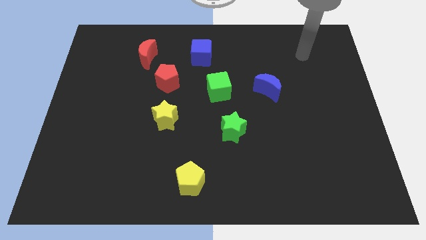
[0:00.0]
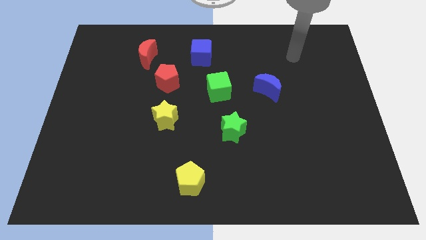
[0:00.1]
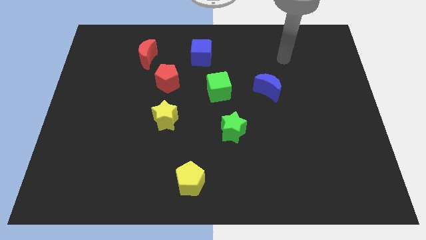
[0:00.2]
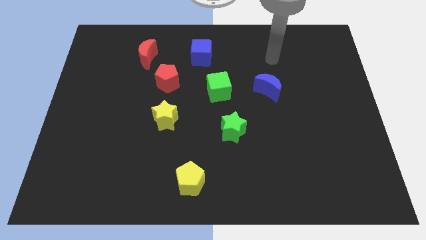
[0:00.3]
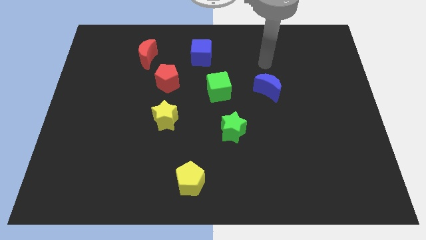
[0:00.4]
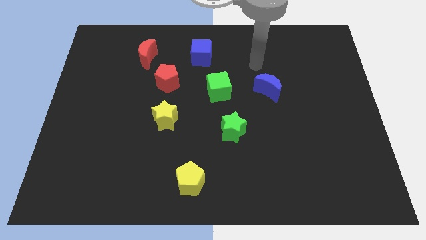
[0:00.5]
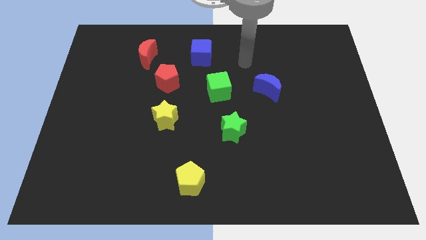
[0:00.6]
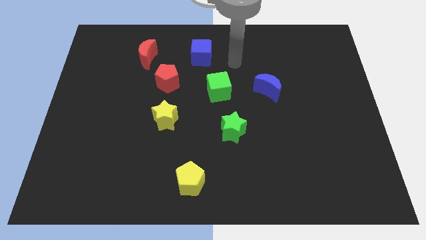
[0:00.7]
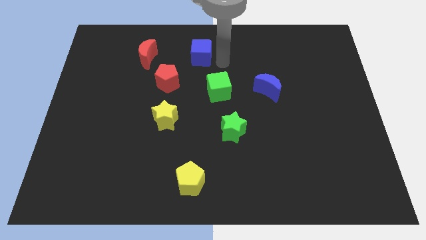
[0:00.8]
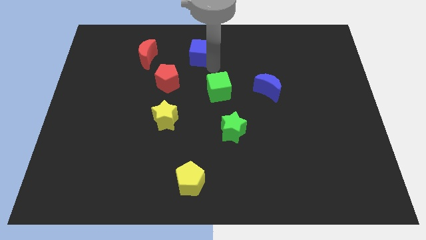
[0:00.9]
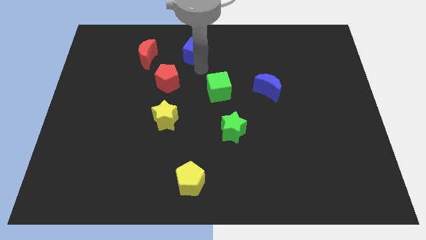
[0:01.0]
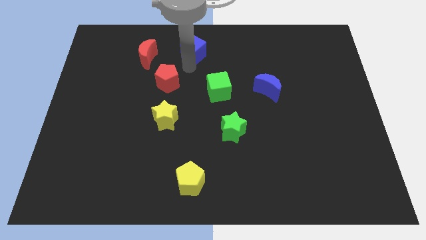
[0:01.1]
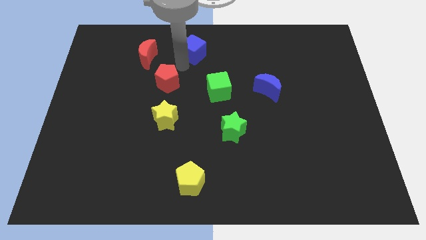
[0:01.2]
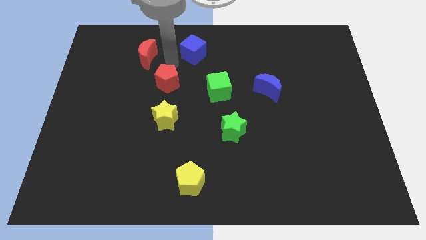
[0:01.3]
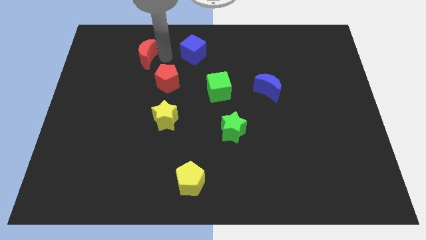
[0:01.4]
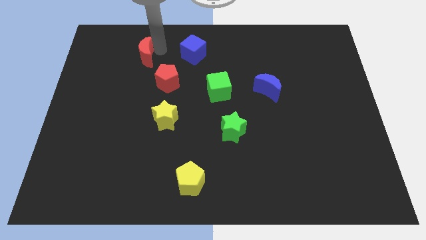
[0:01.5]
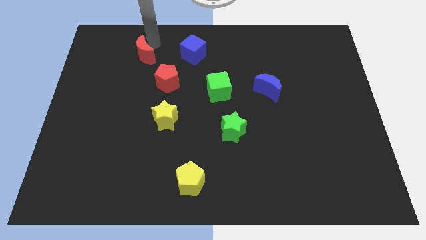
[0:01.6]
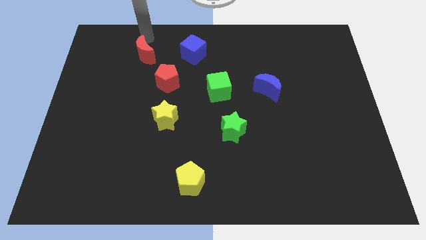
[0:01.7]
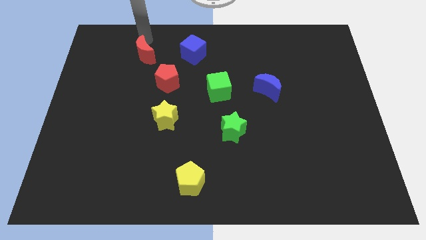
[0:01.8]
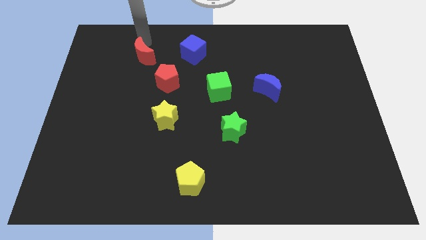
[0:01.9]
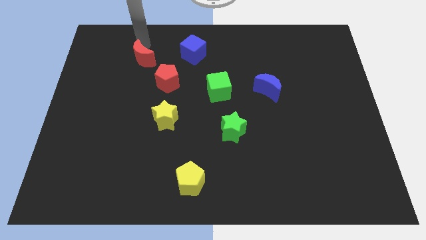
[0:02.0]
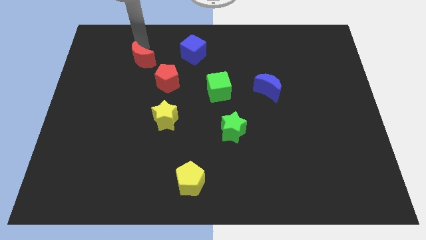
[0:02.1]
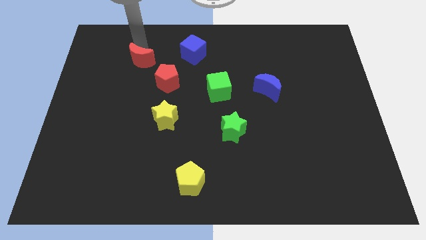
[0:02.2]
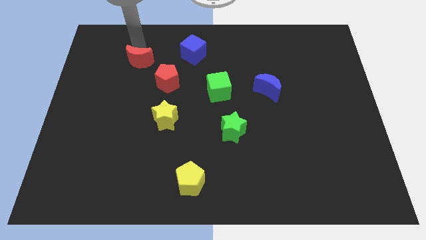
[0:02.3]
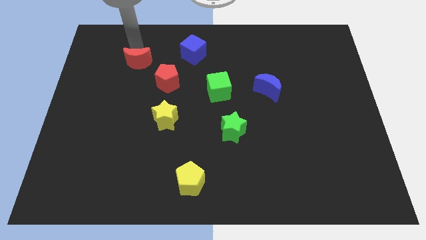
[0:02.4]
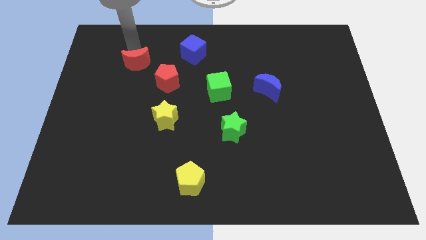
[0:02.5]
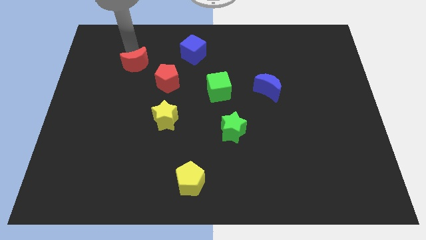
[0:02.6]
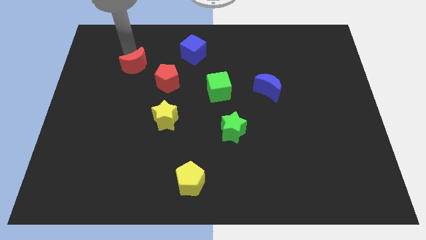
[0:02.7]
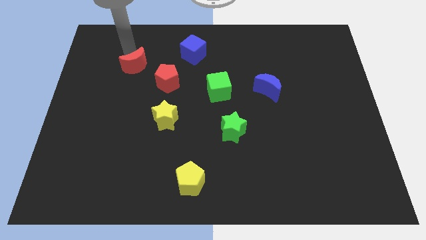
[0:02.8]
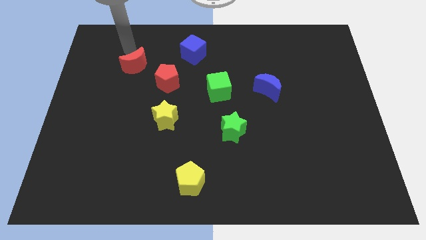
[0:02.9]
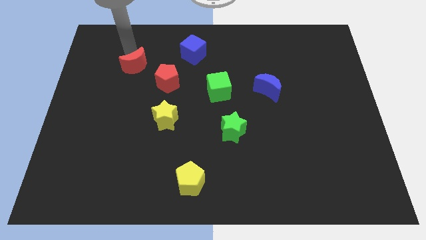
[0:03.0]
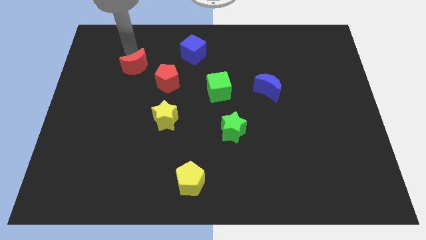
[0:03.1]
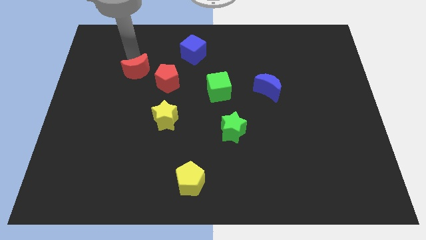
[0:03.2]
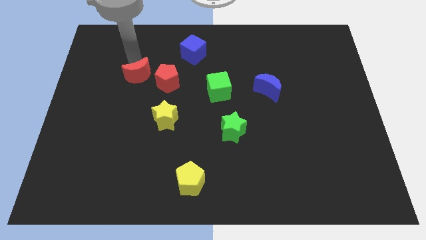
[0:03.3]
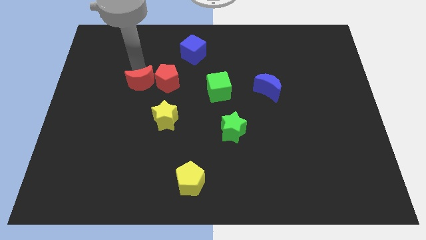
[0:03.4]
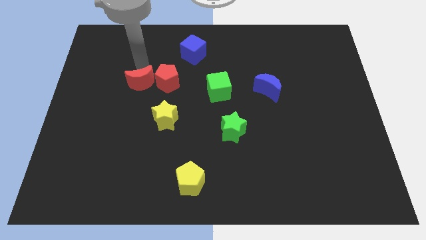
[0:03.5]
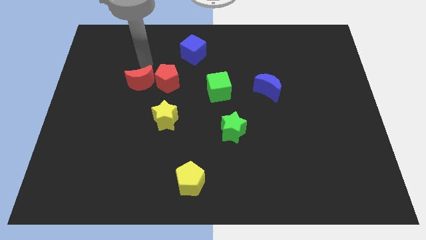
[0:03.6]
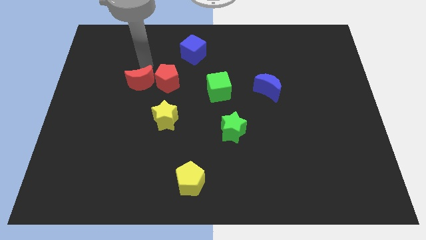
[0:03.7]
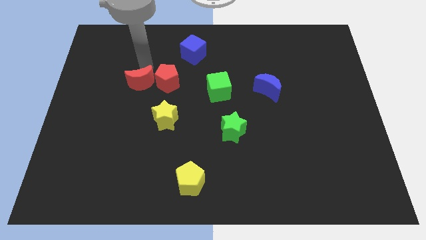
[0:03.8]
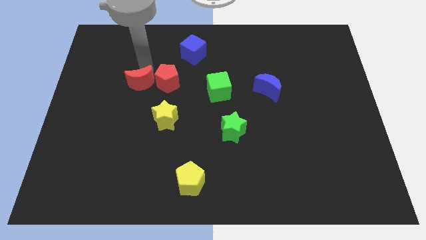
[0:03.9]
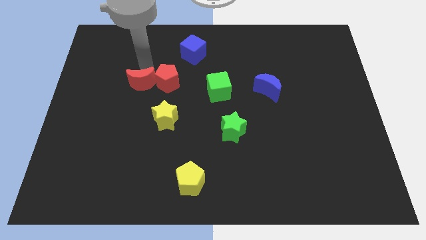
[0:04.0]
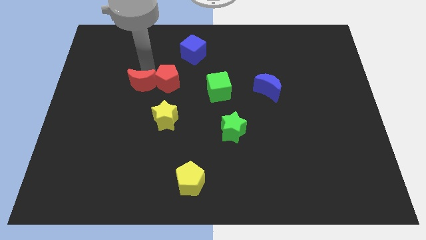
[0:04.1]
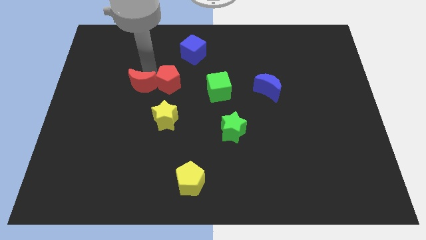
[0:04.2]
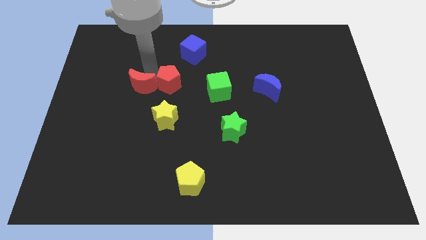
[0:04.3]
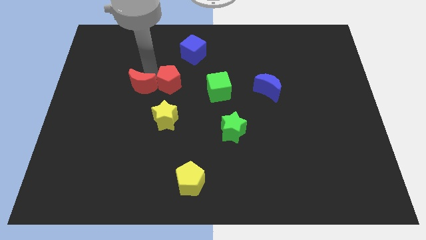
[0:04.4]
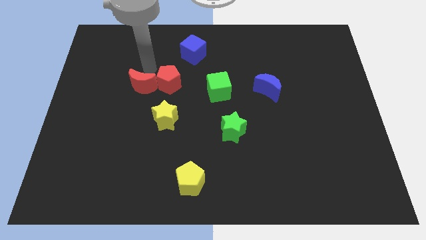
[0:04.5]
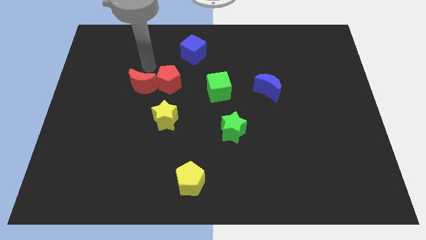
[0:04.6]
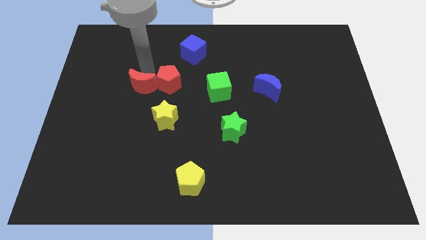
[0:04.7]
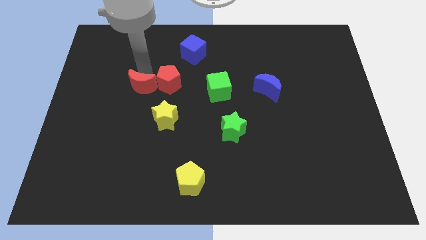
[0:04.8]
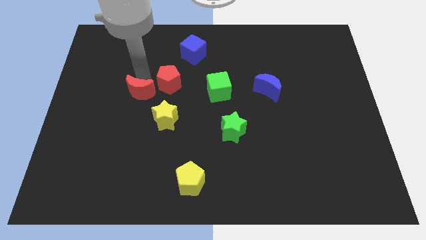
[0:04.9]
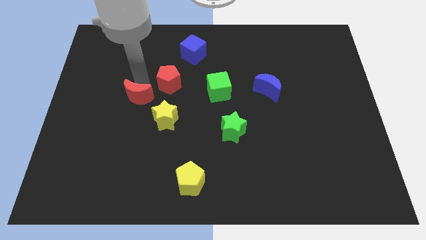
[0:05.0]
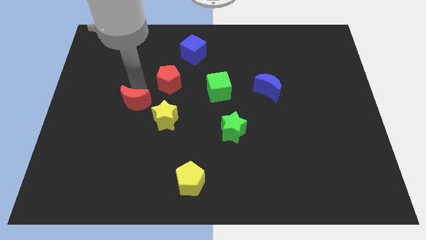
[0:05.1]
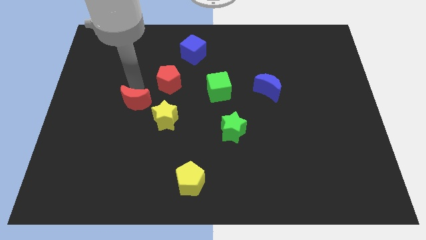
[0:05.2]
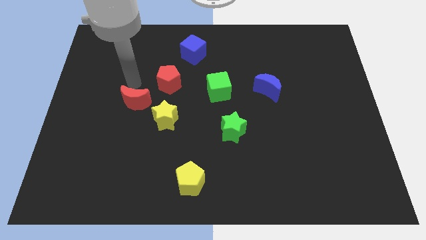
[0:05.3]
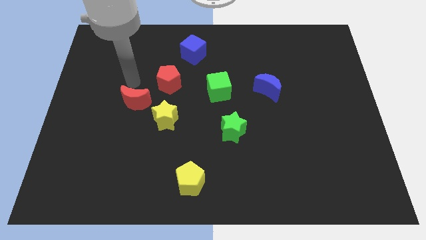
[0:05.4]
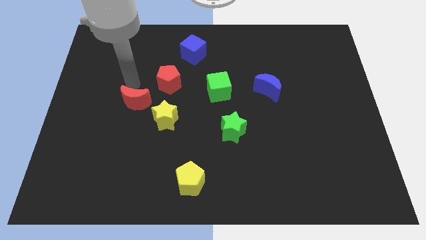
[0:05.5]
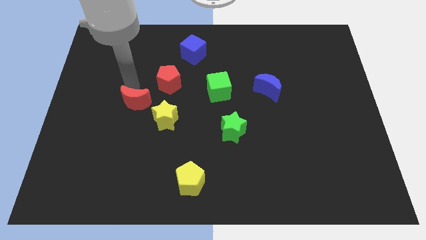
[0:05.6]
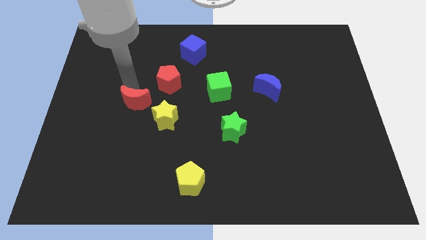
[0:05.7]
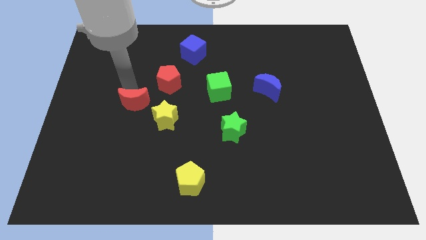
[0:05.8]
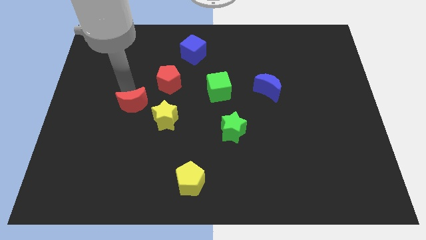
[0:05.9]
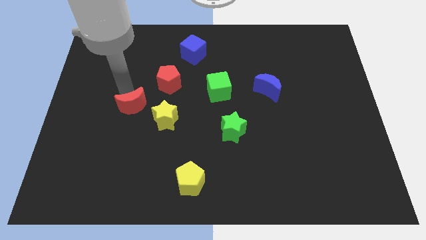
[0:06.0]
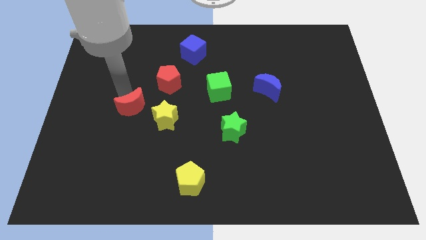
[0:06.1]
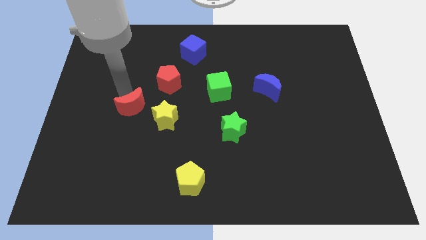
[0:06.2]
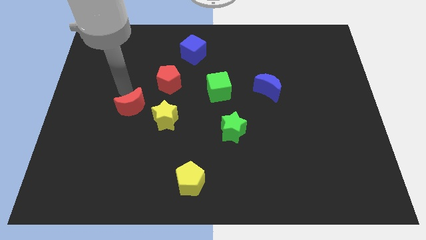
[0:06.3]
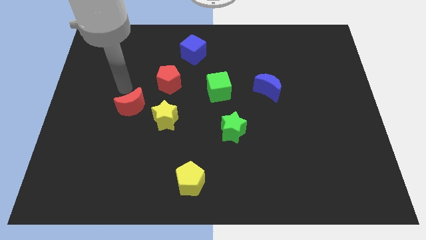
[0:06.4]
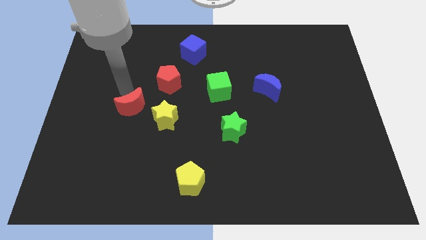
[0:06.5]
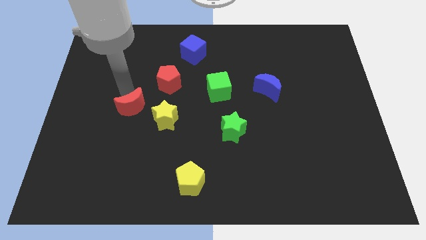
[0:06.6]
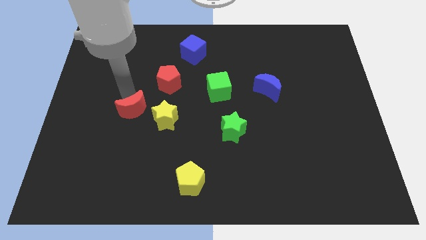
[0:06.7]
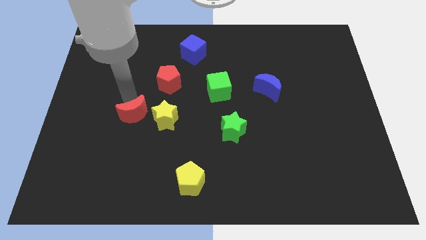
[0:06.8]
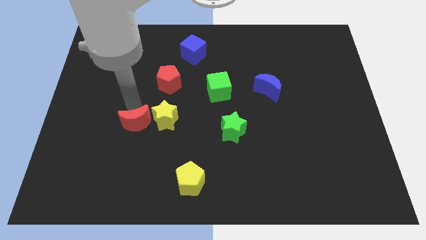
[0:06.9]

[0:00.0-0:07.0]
slide the red moon down

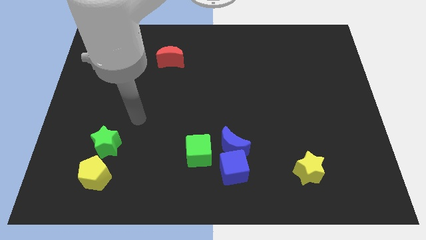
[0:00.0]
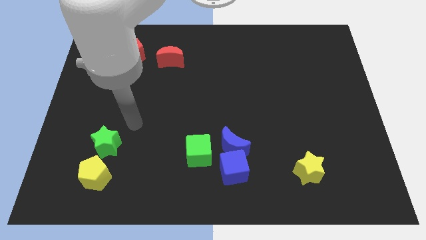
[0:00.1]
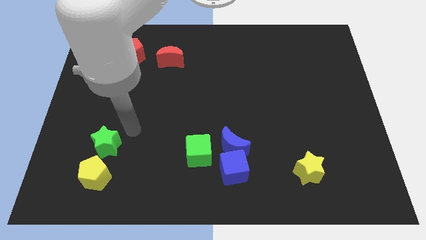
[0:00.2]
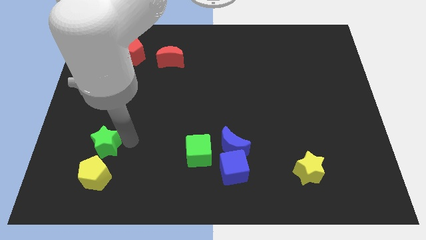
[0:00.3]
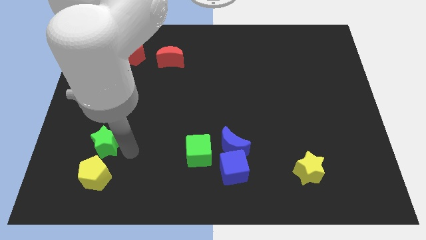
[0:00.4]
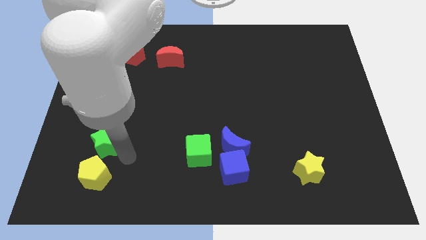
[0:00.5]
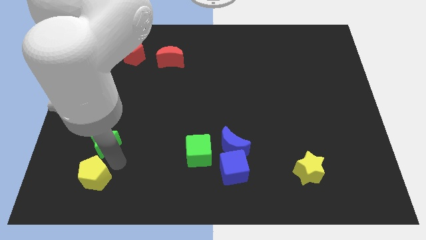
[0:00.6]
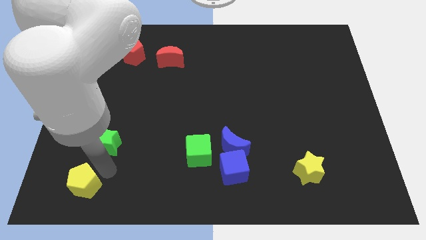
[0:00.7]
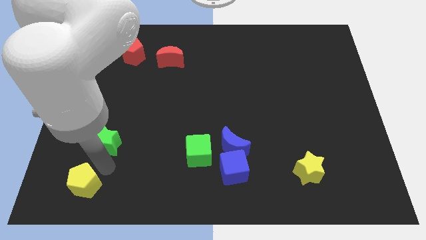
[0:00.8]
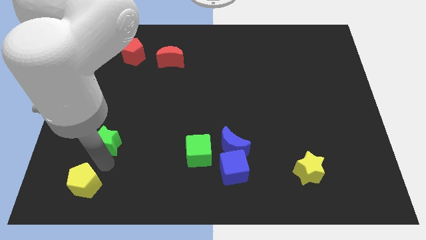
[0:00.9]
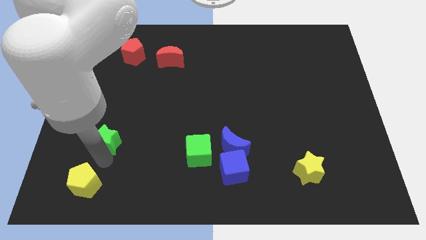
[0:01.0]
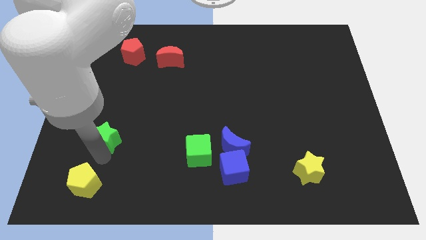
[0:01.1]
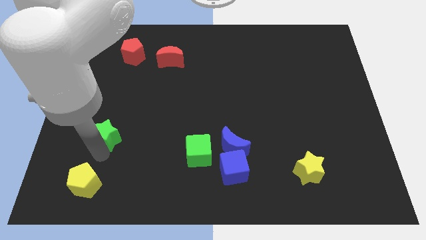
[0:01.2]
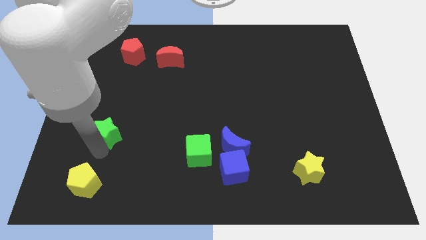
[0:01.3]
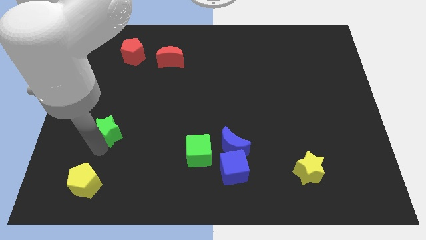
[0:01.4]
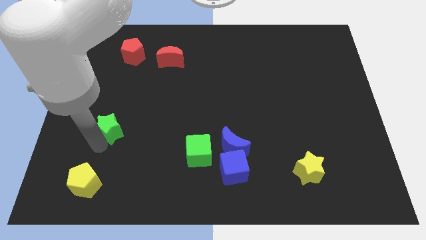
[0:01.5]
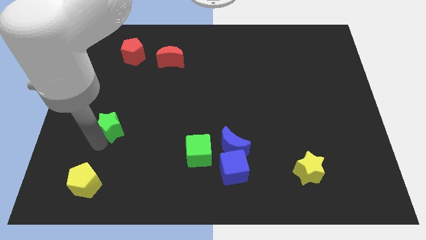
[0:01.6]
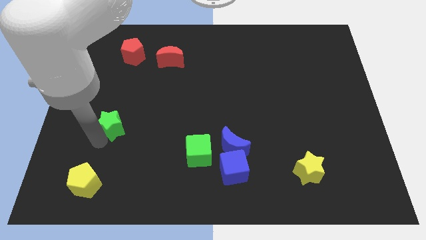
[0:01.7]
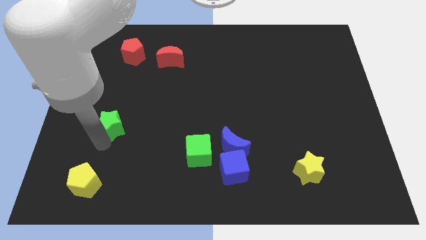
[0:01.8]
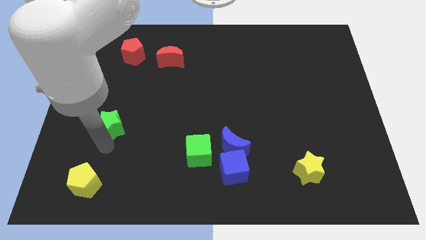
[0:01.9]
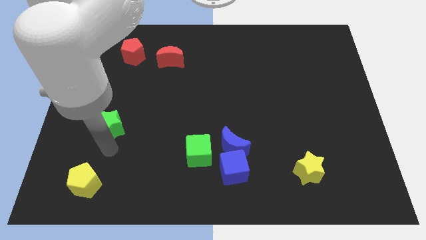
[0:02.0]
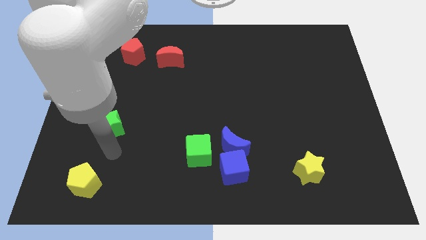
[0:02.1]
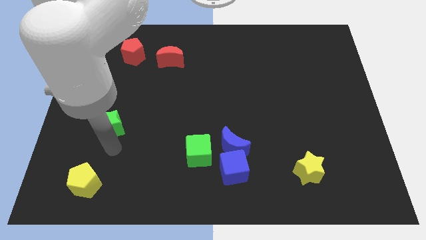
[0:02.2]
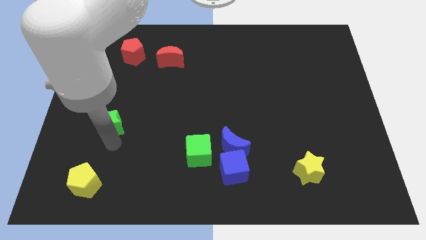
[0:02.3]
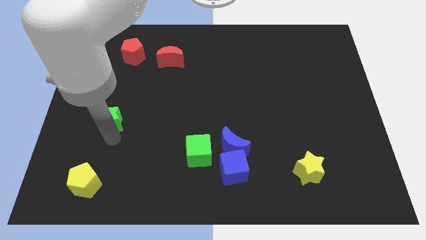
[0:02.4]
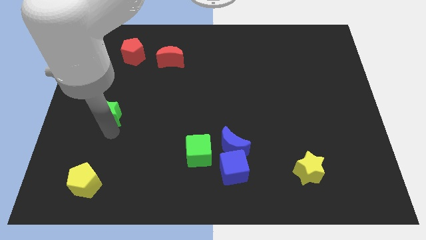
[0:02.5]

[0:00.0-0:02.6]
slightly slide the green star upwards
